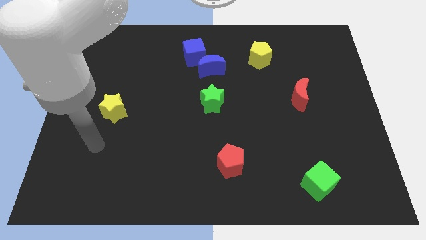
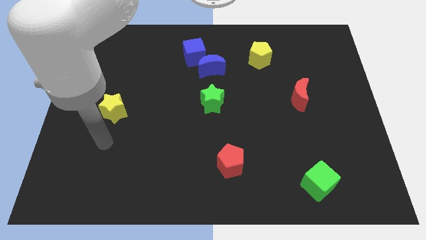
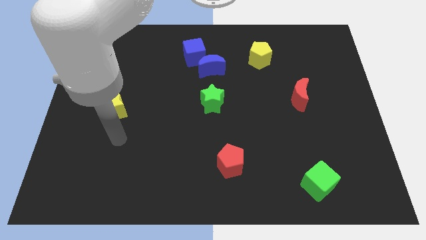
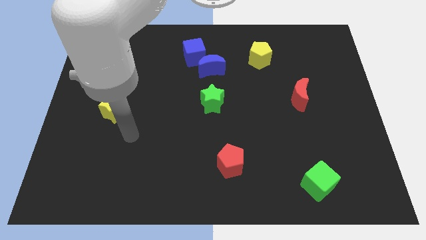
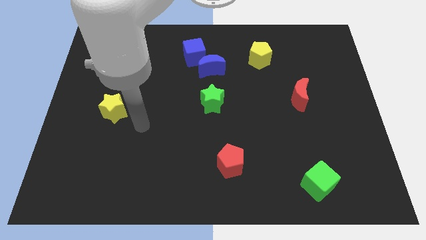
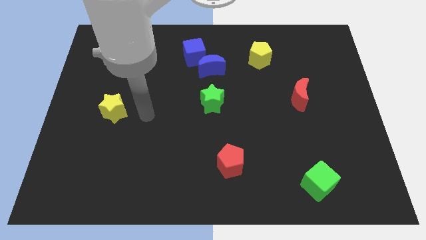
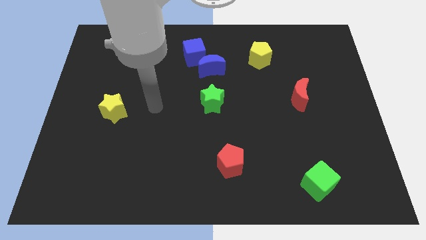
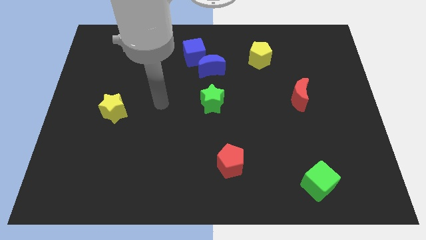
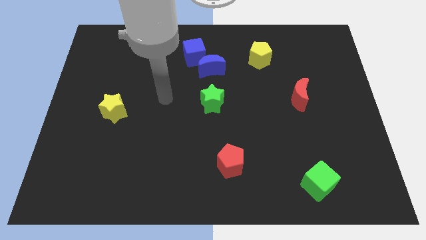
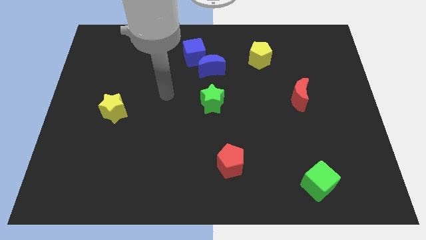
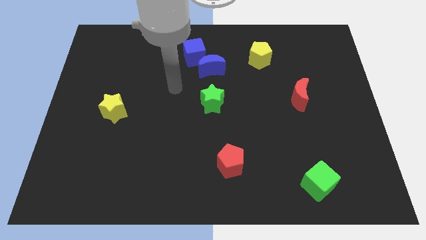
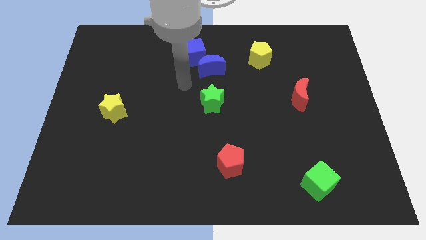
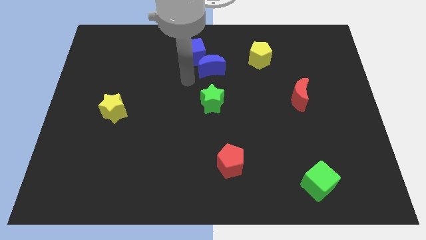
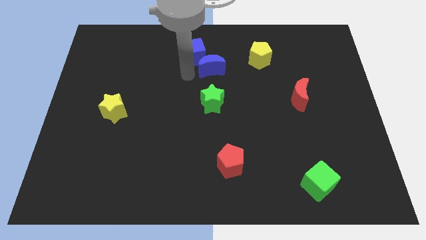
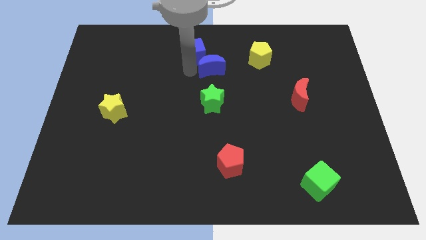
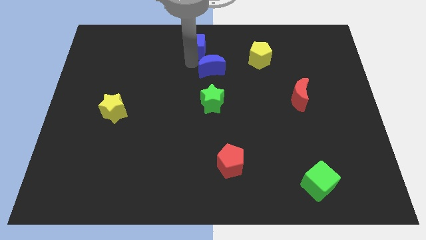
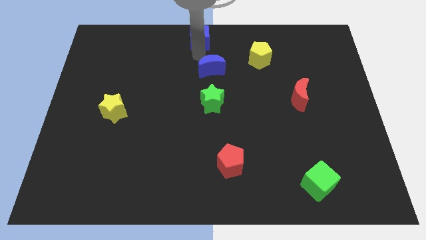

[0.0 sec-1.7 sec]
separate the blue moon from the blue cube

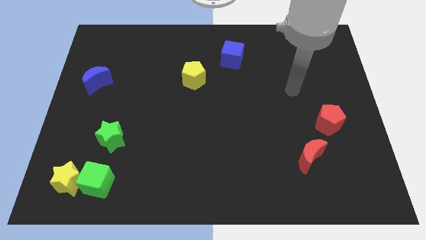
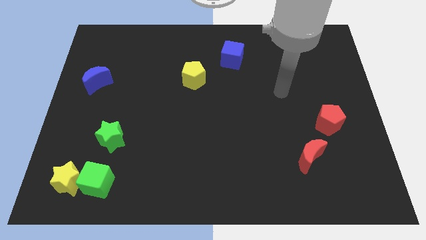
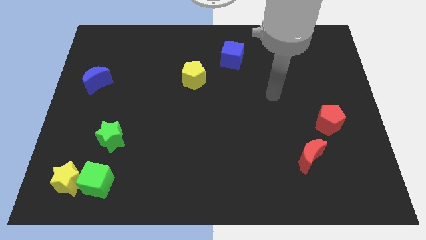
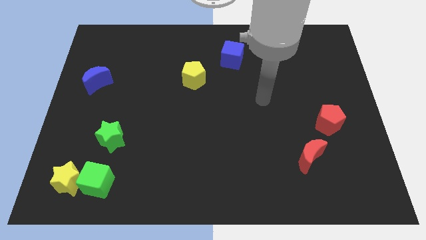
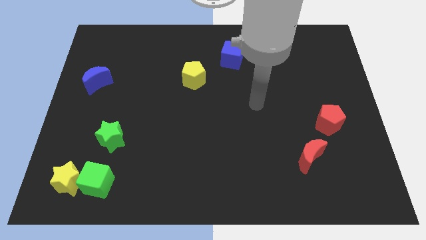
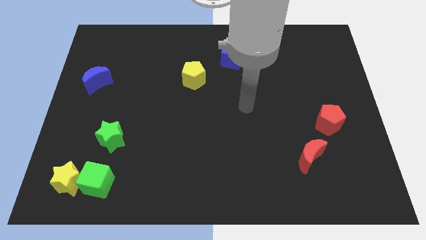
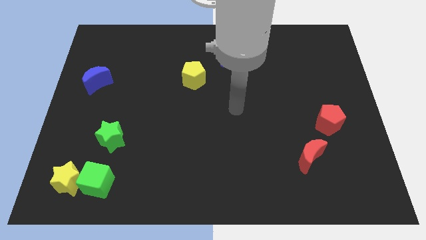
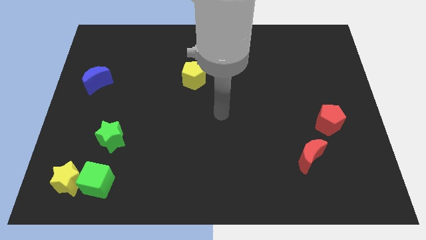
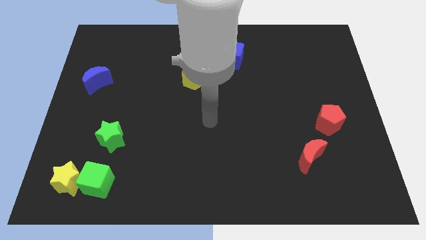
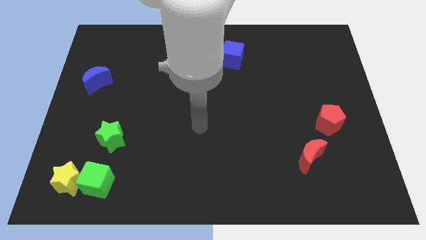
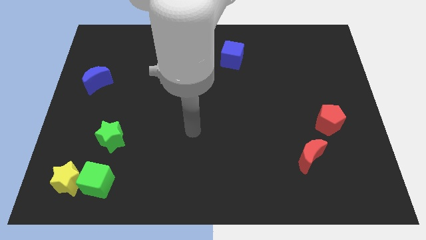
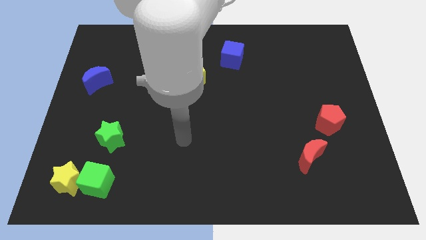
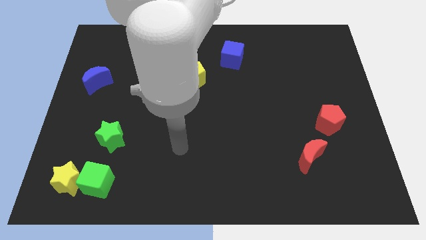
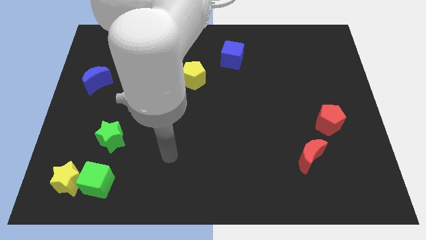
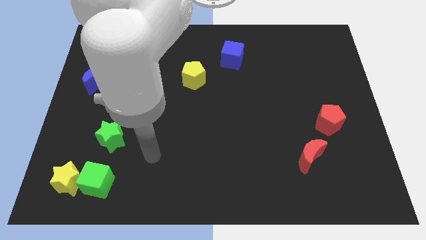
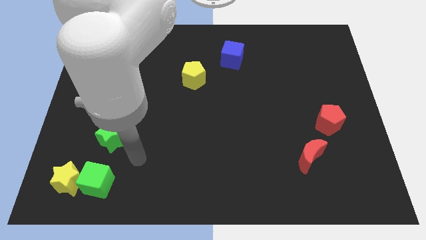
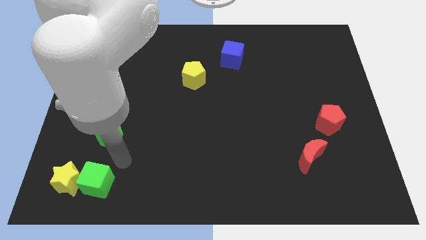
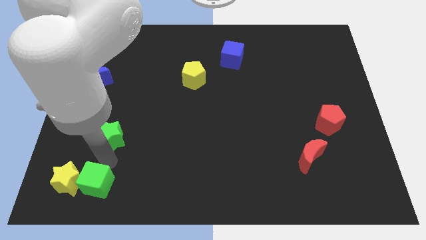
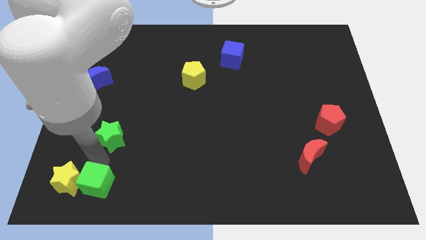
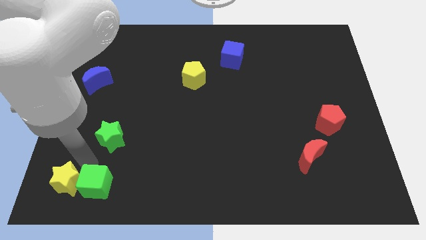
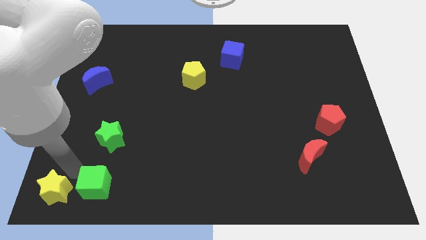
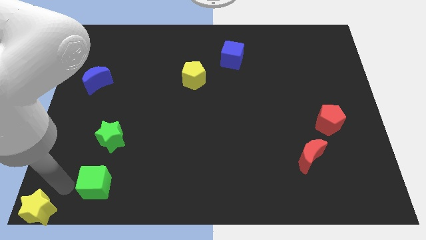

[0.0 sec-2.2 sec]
pull the green cube apart from the yellow star

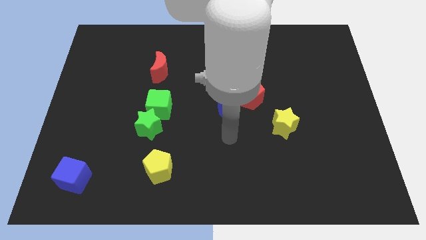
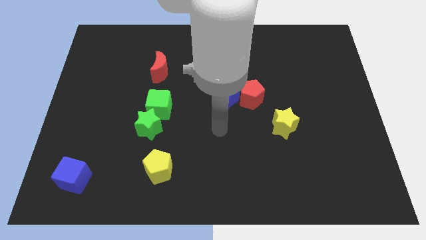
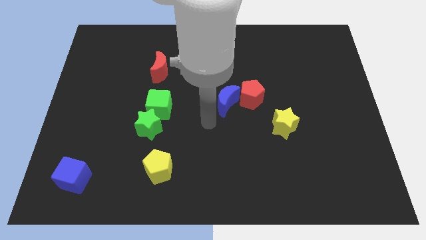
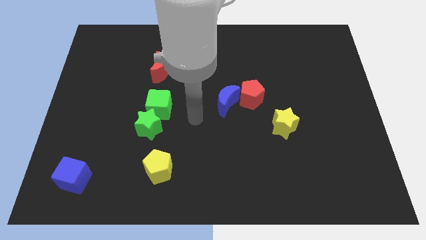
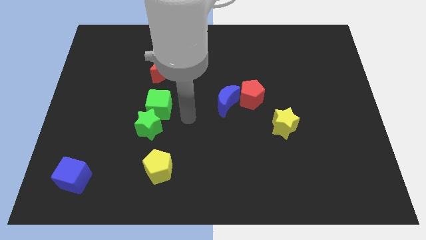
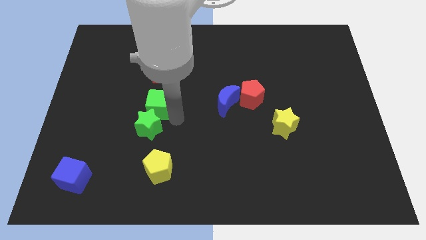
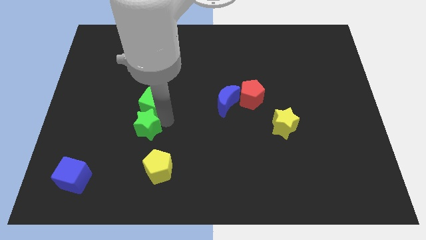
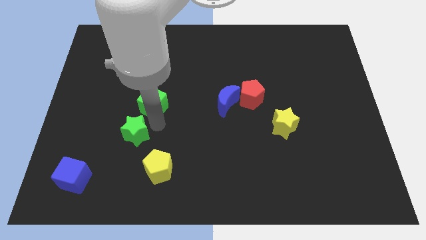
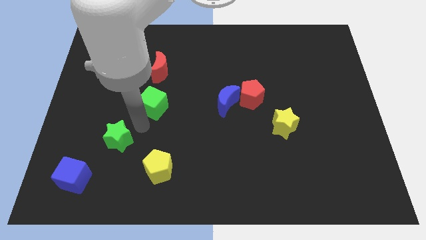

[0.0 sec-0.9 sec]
separate the green cube from the green star

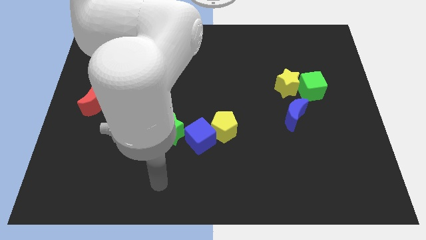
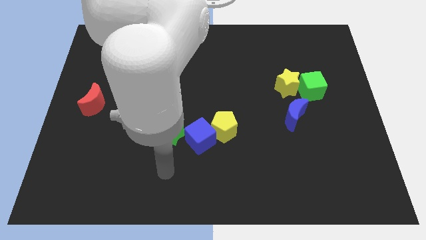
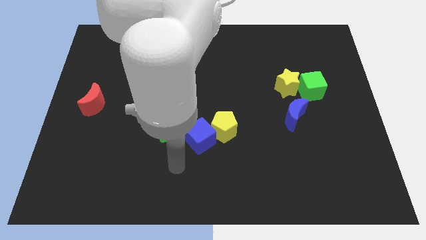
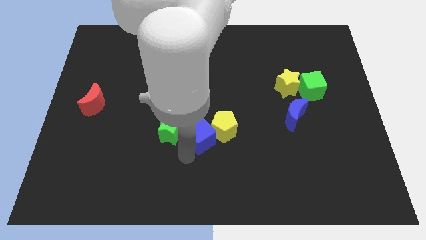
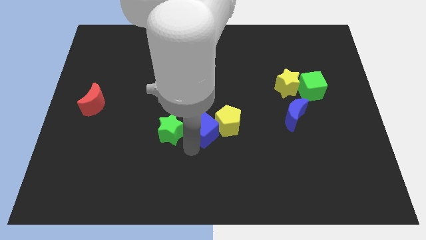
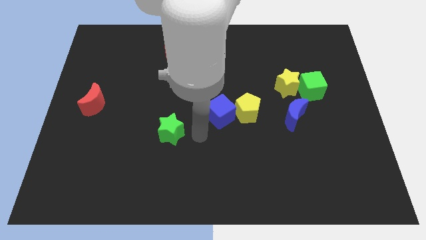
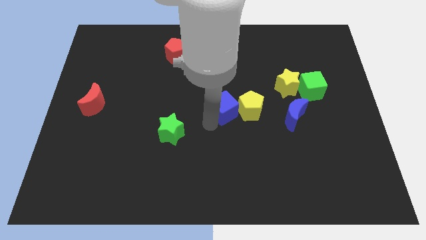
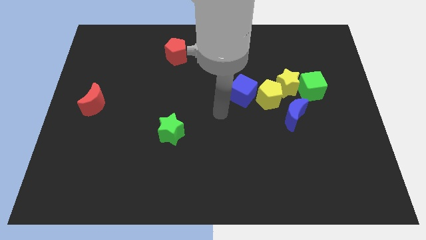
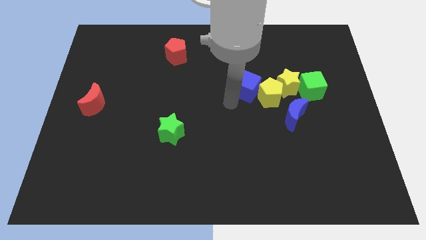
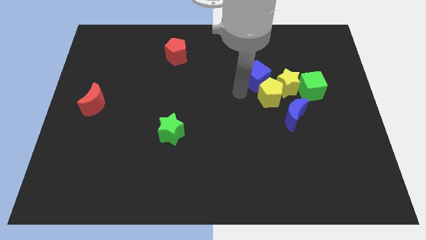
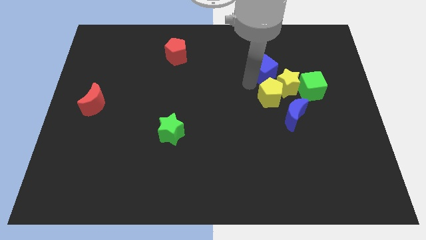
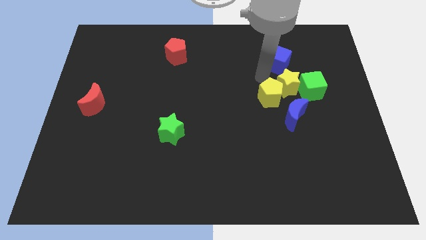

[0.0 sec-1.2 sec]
pull the yellow pentagon apart from the blue cube

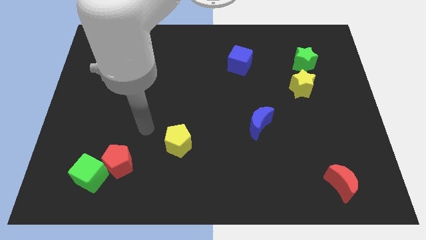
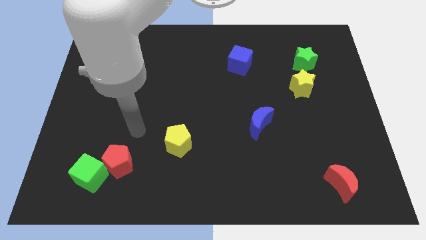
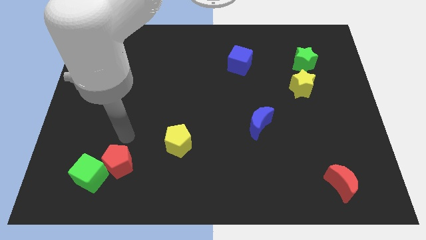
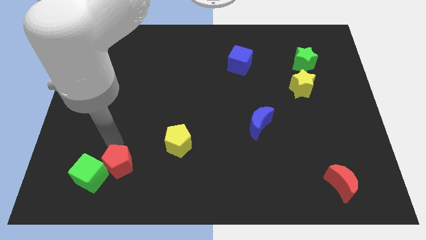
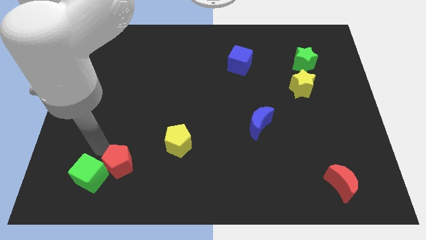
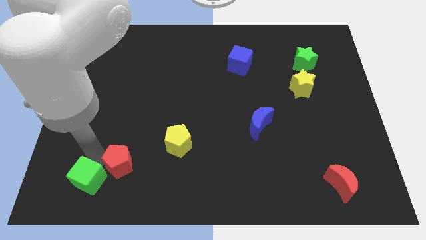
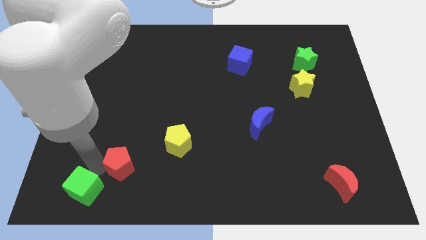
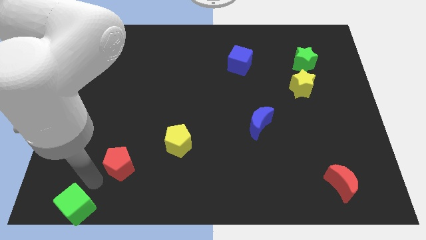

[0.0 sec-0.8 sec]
pull the red pentagon apart from the green cube

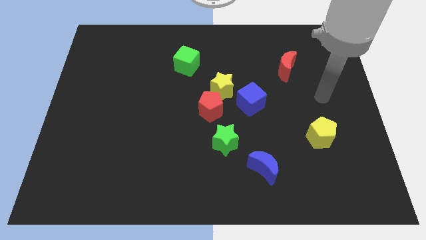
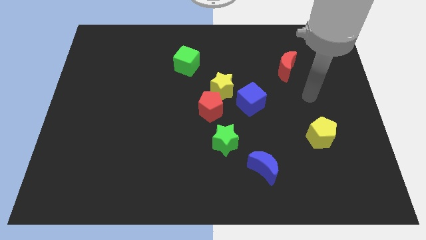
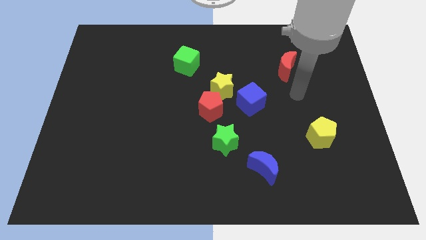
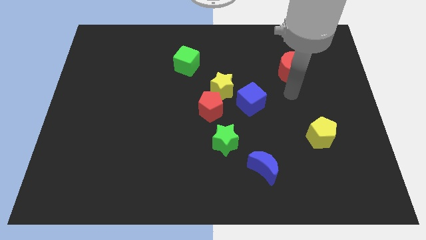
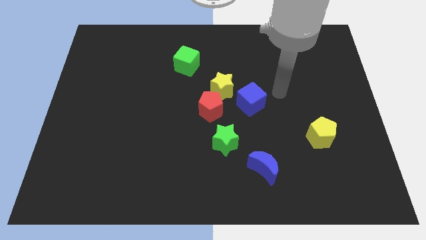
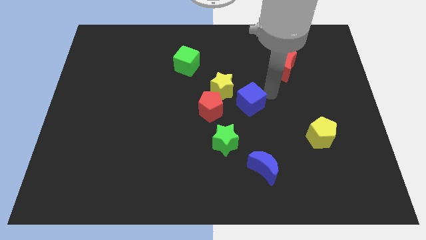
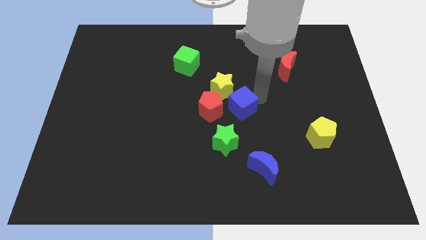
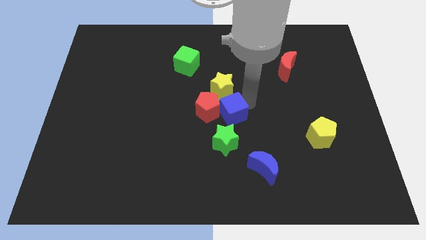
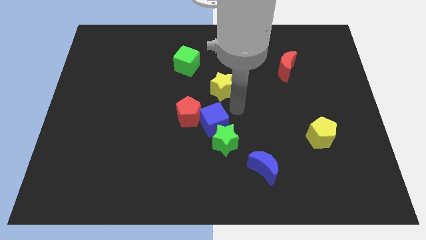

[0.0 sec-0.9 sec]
move the yellow star away from the red pentagon and blue cube

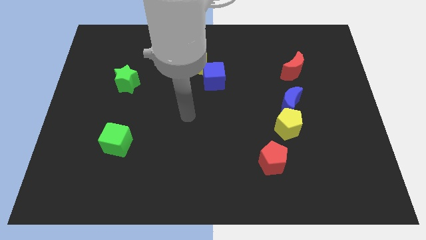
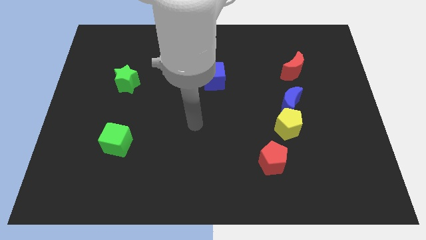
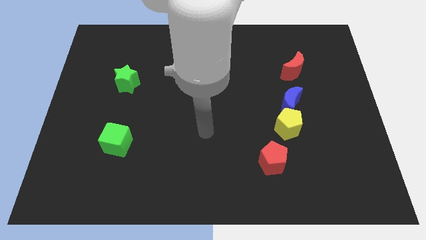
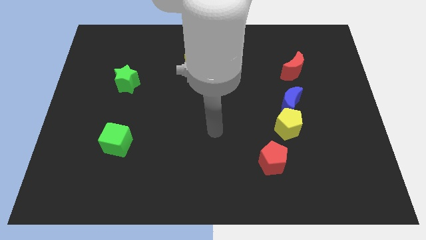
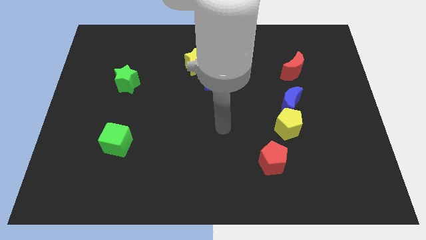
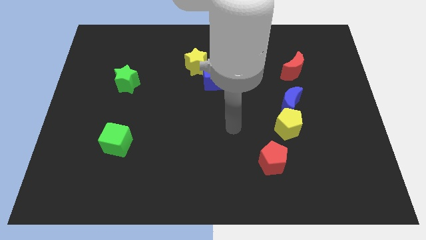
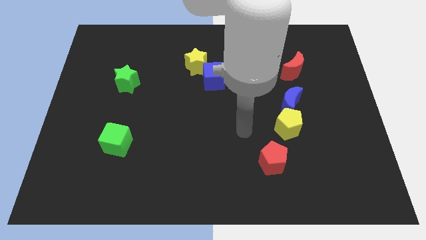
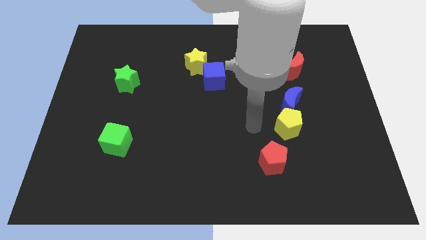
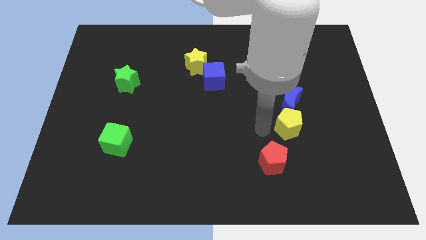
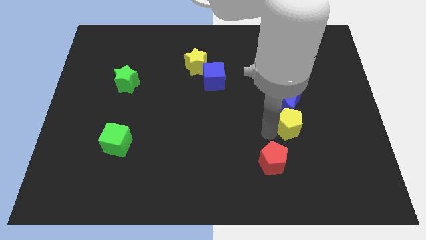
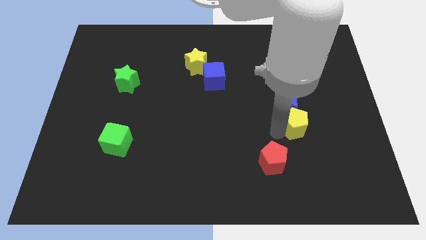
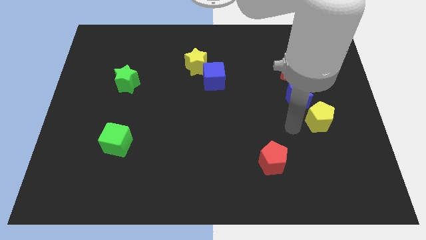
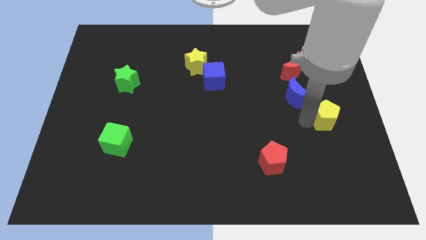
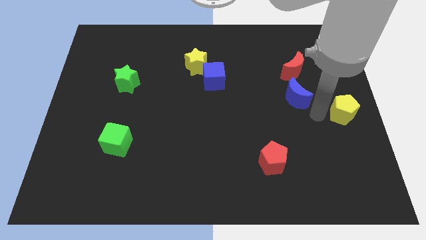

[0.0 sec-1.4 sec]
separate the blue moon from the yellow pentagon

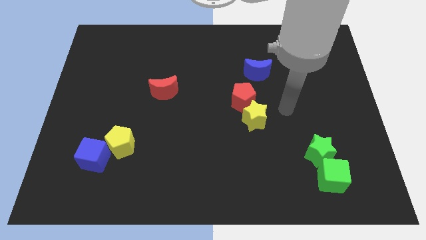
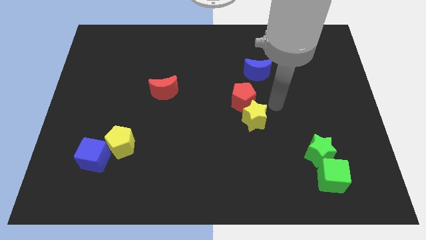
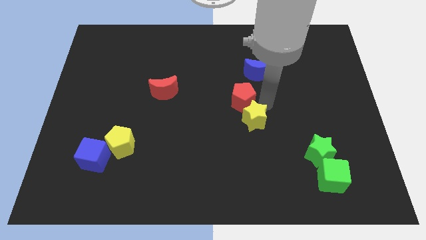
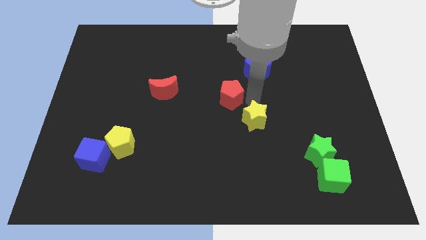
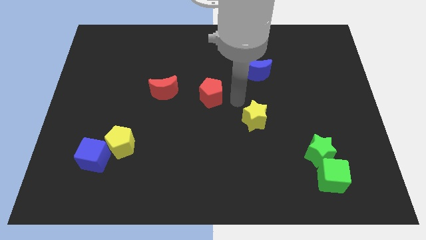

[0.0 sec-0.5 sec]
pull the yellow star apart from the red pentagon
